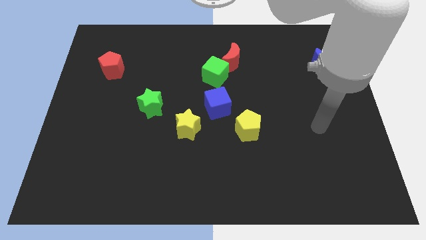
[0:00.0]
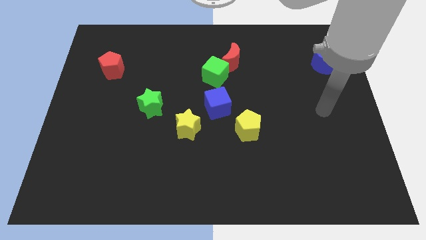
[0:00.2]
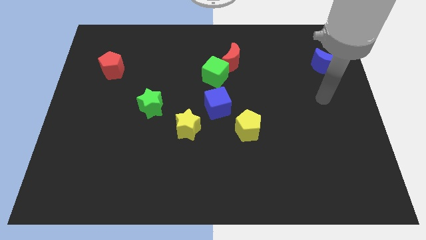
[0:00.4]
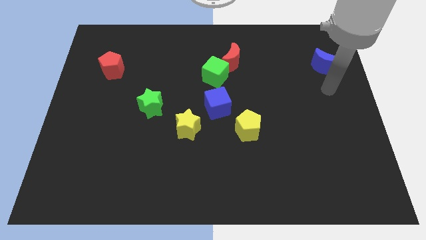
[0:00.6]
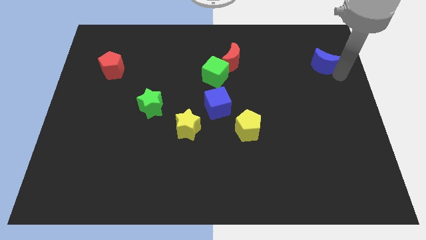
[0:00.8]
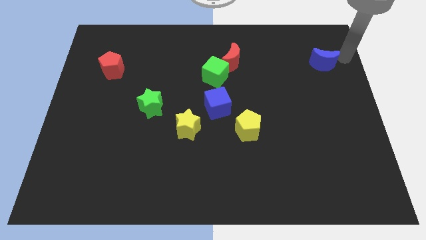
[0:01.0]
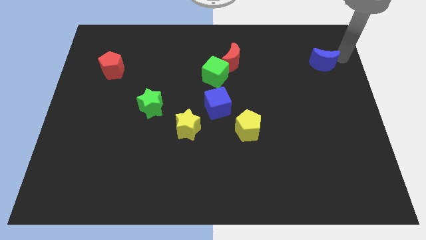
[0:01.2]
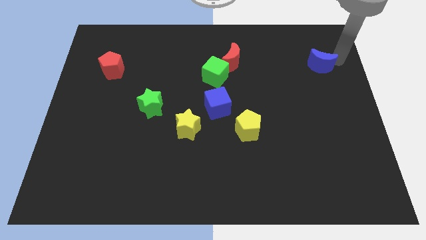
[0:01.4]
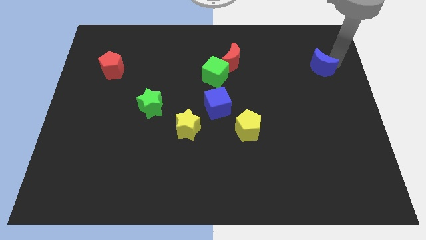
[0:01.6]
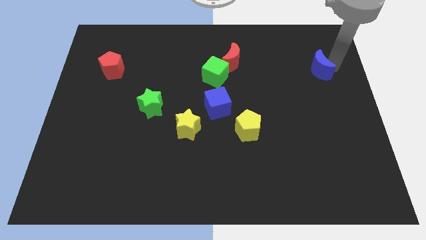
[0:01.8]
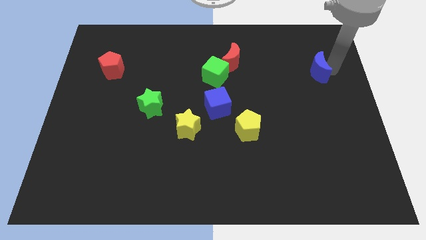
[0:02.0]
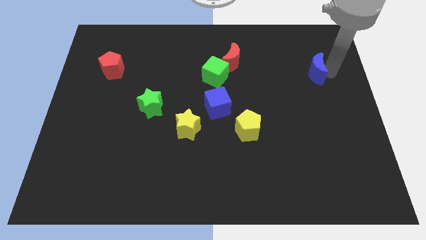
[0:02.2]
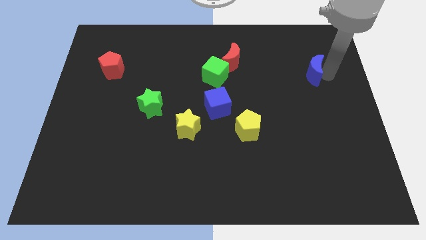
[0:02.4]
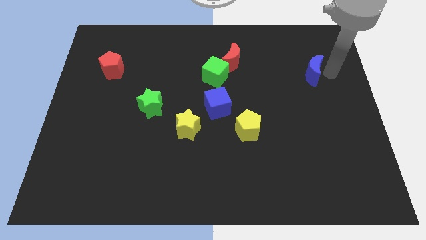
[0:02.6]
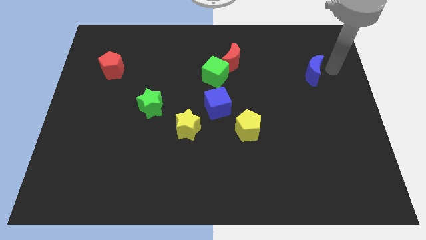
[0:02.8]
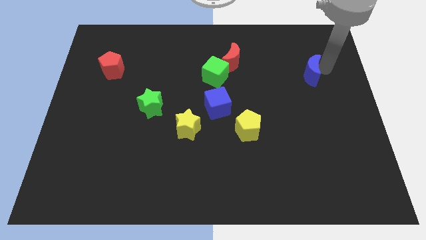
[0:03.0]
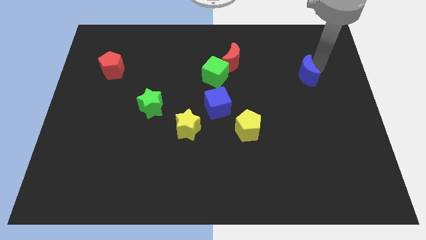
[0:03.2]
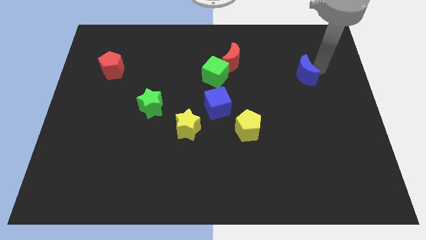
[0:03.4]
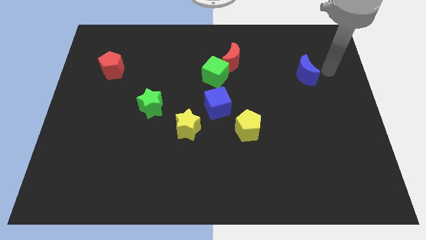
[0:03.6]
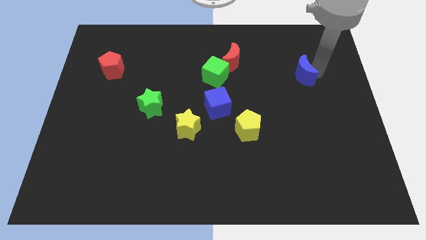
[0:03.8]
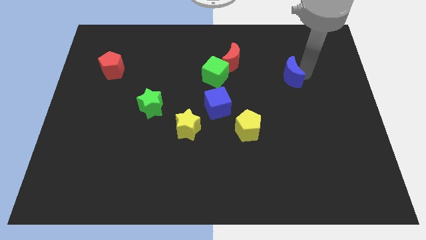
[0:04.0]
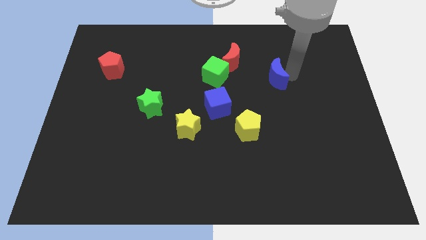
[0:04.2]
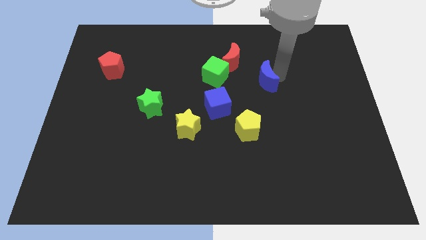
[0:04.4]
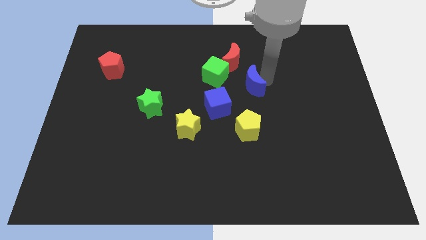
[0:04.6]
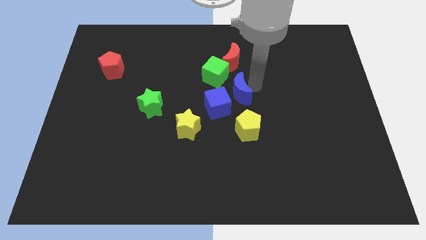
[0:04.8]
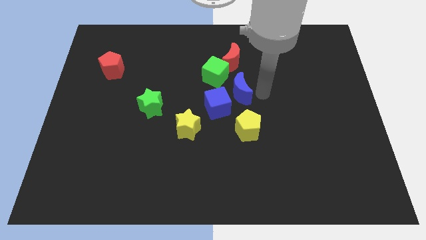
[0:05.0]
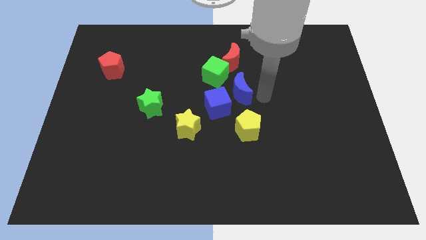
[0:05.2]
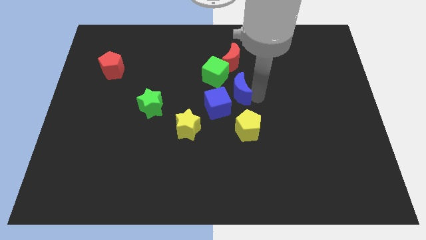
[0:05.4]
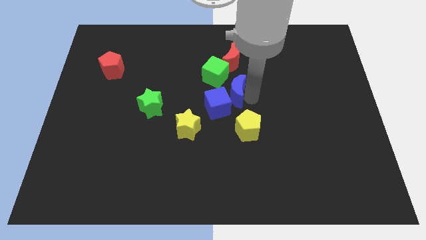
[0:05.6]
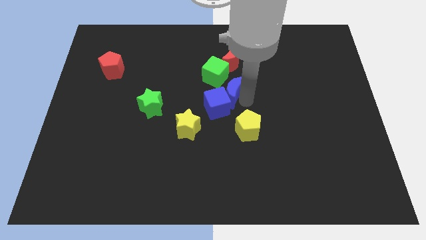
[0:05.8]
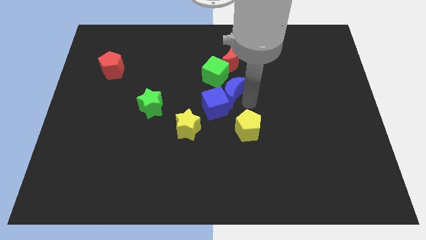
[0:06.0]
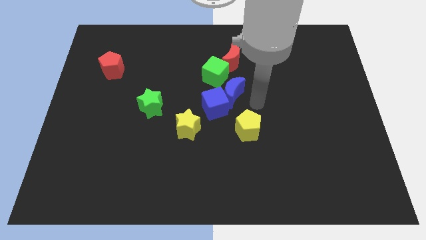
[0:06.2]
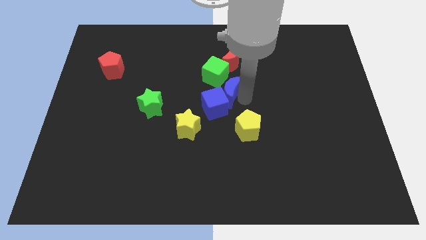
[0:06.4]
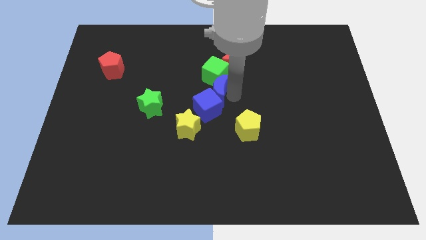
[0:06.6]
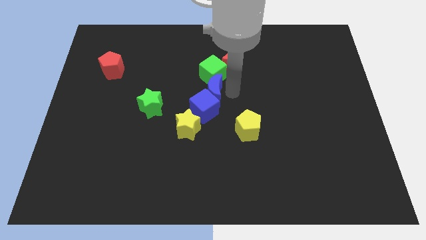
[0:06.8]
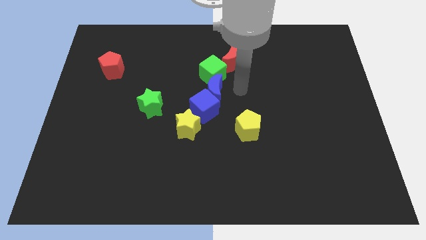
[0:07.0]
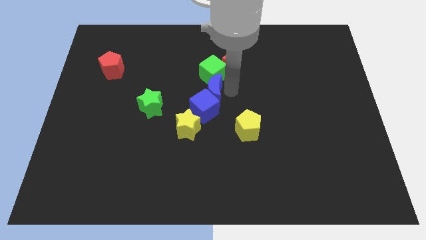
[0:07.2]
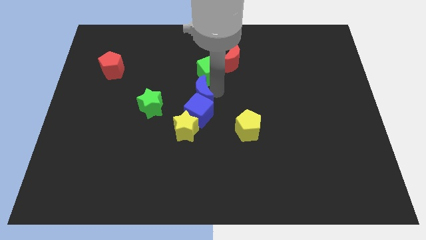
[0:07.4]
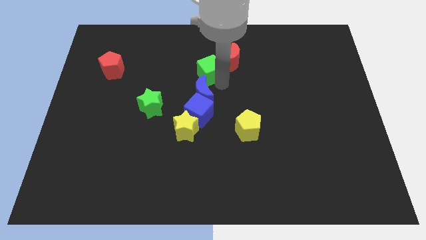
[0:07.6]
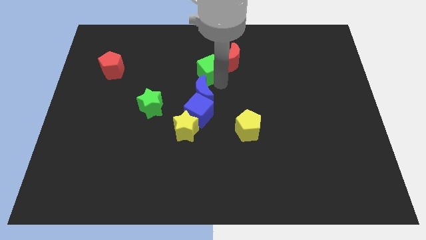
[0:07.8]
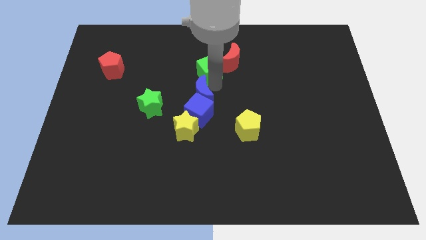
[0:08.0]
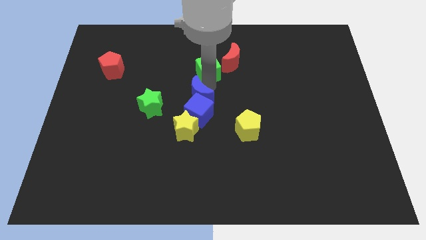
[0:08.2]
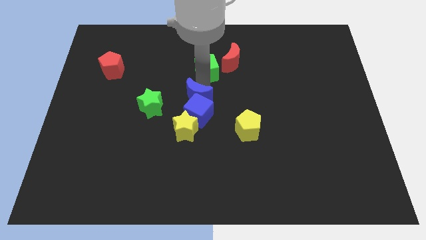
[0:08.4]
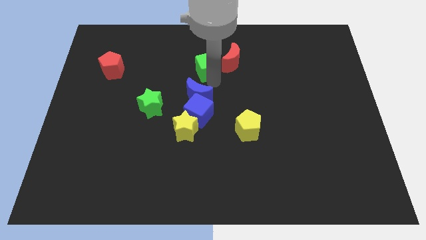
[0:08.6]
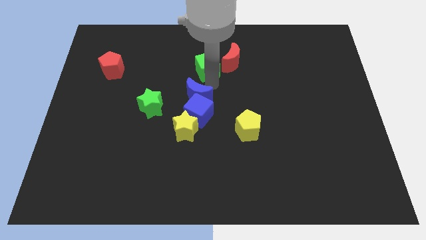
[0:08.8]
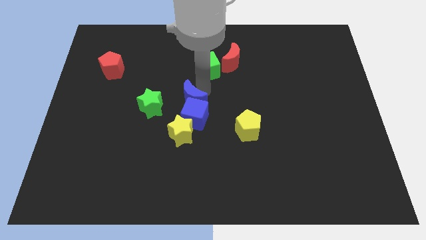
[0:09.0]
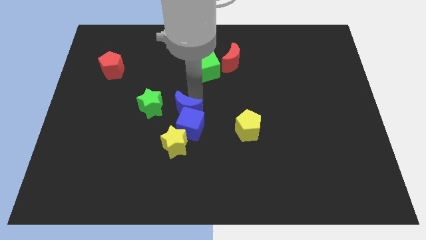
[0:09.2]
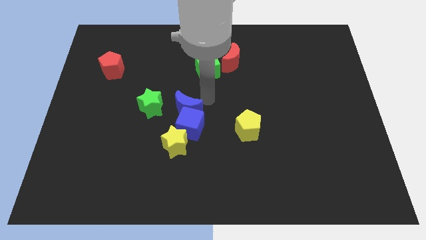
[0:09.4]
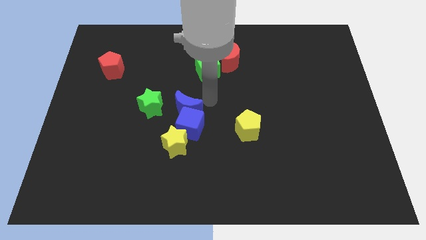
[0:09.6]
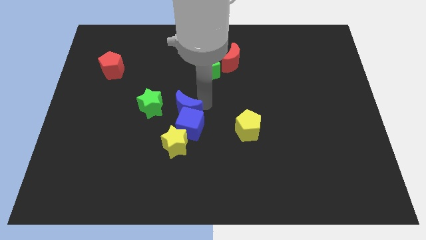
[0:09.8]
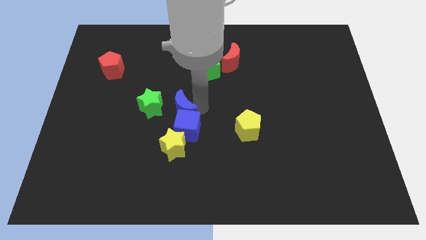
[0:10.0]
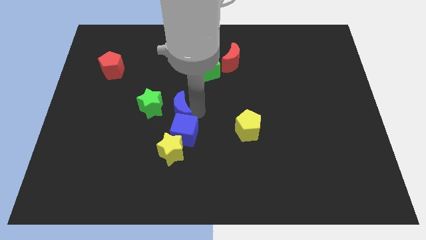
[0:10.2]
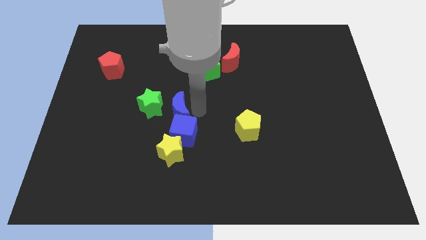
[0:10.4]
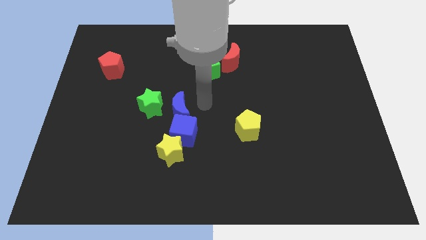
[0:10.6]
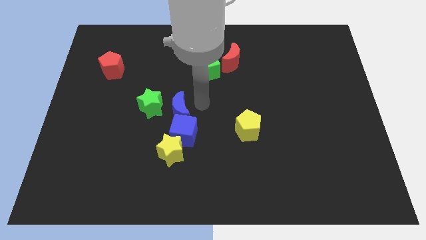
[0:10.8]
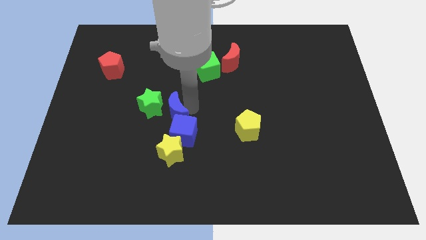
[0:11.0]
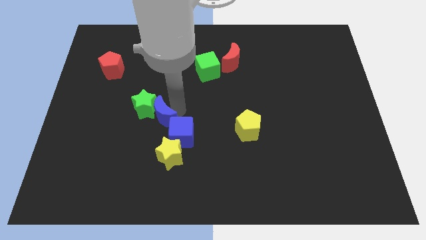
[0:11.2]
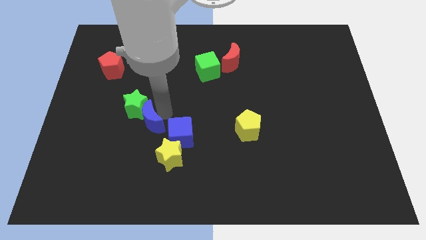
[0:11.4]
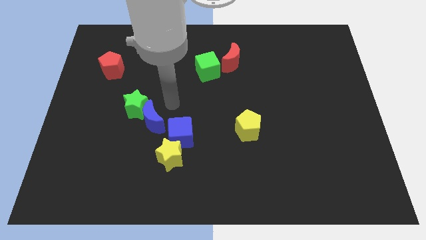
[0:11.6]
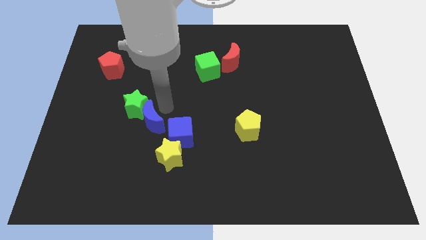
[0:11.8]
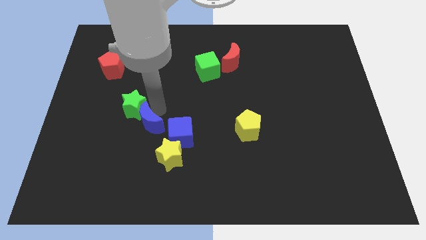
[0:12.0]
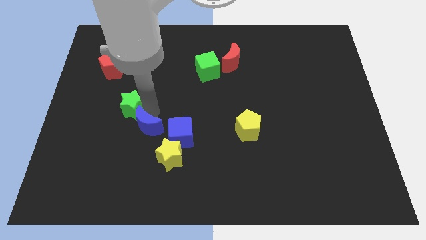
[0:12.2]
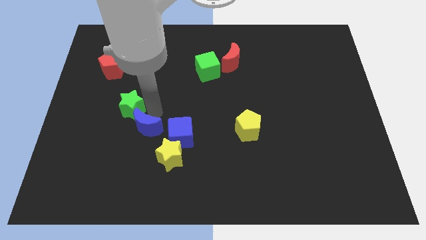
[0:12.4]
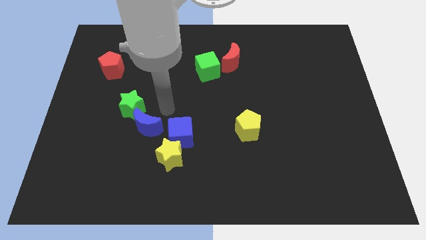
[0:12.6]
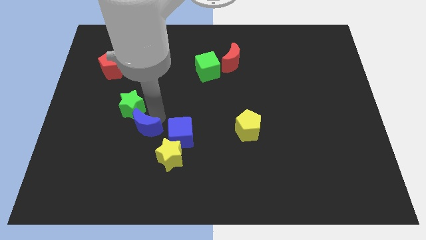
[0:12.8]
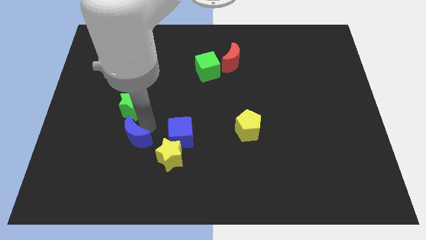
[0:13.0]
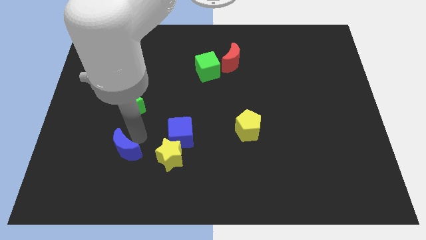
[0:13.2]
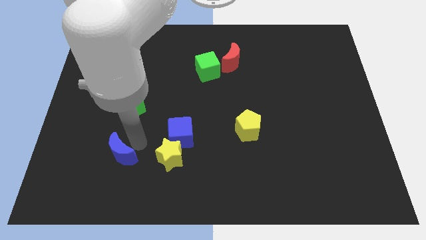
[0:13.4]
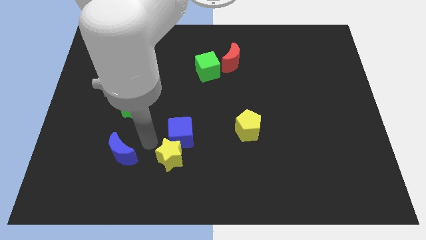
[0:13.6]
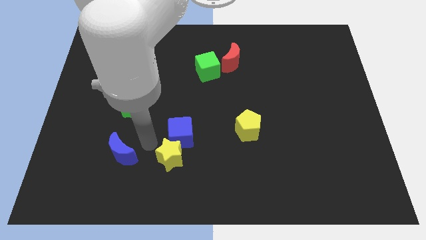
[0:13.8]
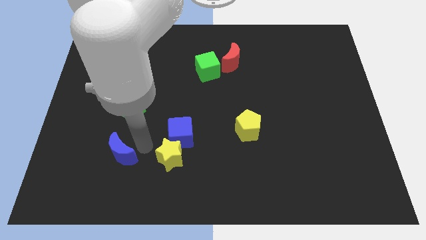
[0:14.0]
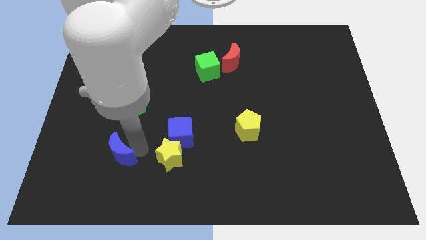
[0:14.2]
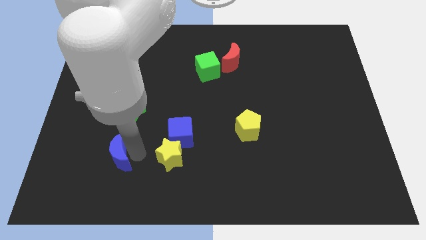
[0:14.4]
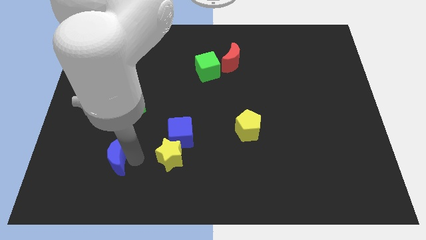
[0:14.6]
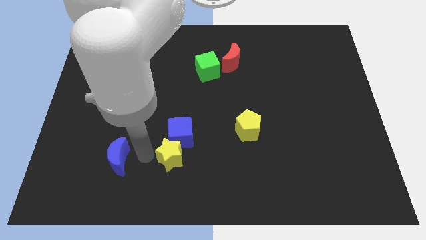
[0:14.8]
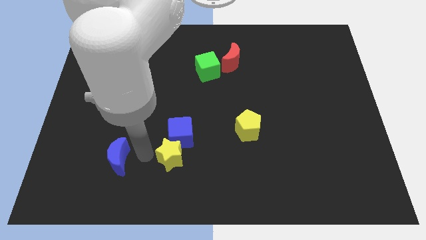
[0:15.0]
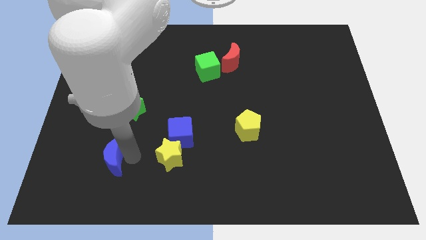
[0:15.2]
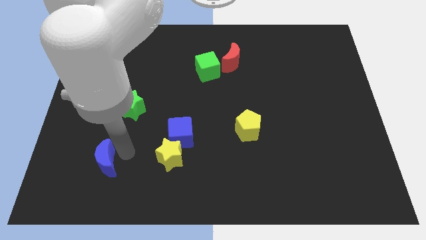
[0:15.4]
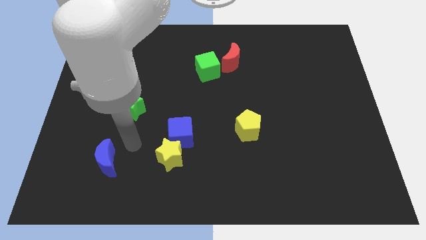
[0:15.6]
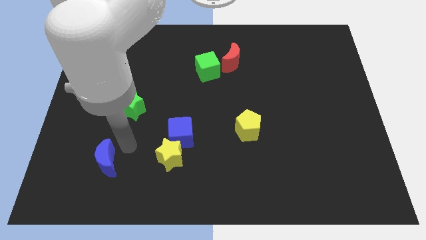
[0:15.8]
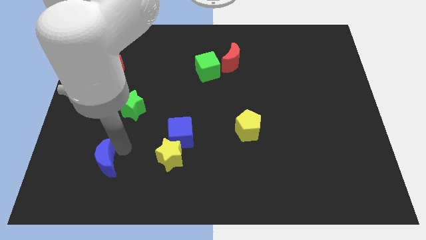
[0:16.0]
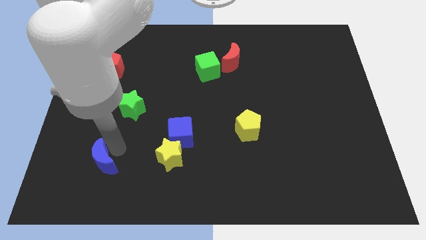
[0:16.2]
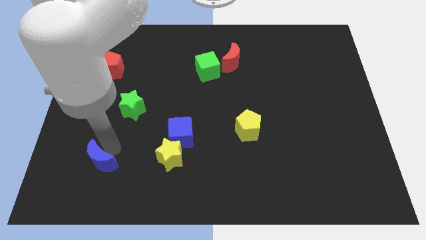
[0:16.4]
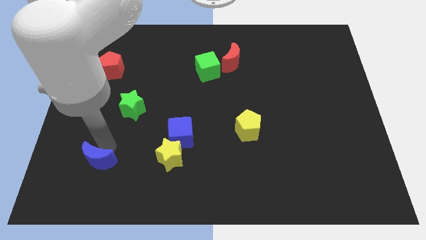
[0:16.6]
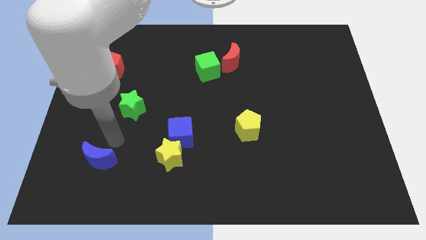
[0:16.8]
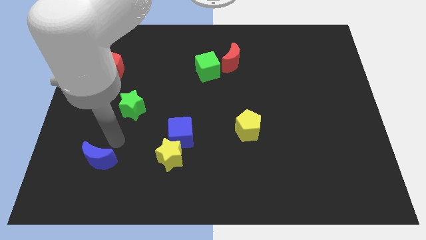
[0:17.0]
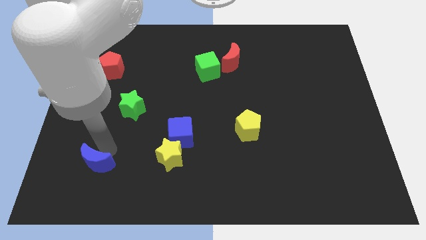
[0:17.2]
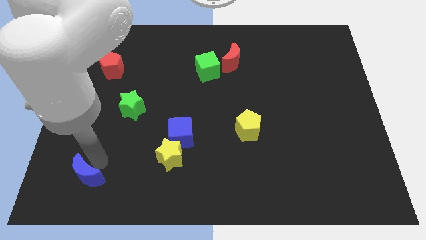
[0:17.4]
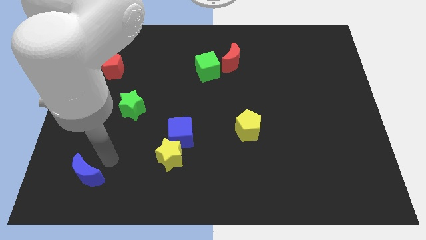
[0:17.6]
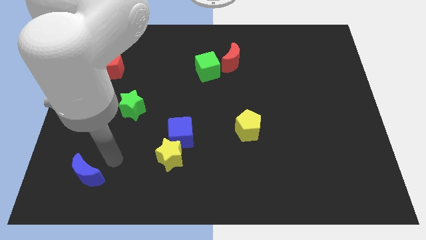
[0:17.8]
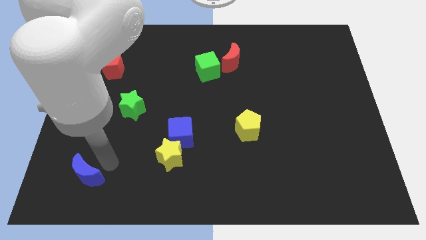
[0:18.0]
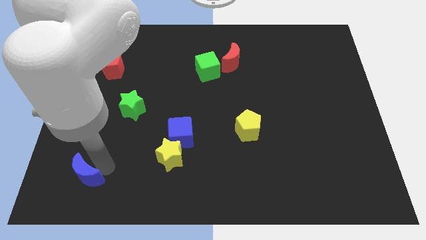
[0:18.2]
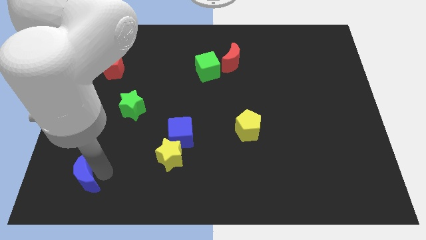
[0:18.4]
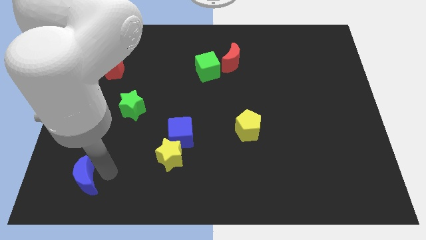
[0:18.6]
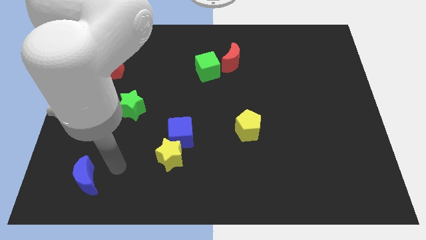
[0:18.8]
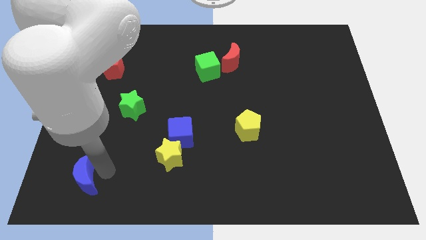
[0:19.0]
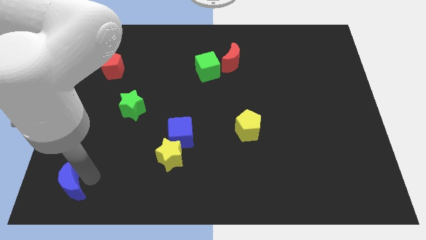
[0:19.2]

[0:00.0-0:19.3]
move the blue moon to the bottom left corner
